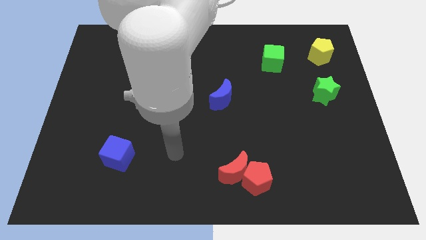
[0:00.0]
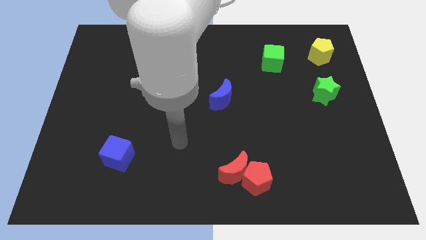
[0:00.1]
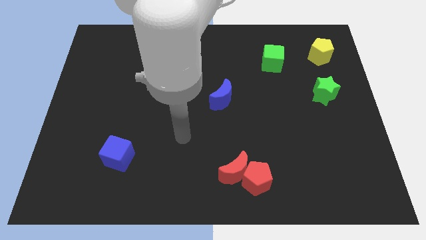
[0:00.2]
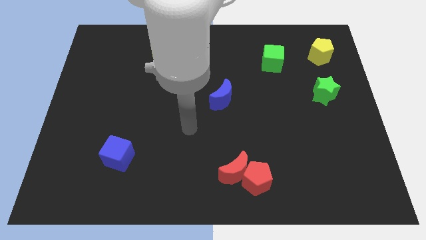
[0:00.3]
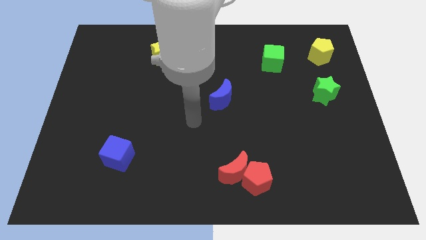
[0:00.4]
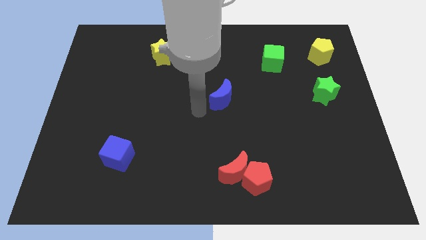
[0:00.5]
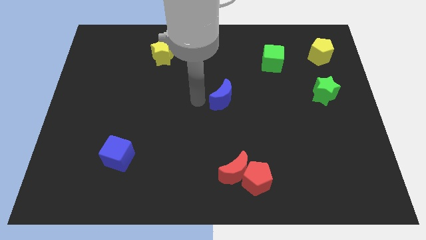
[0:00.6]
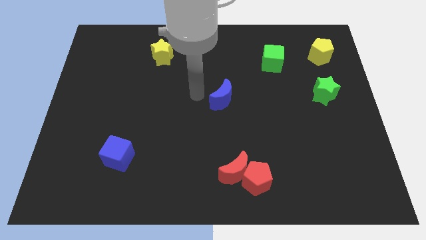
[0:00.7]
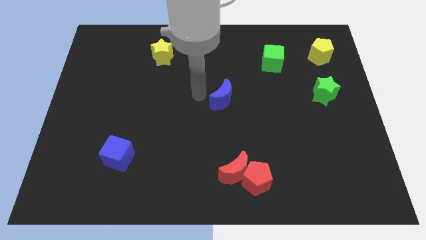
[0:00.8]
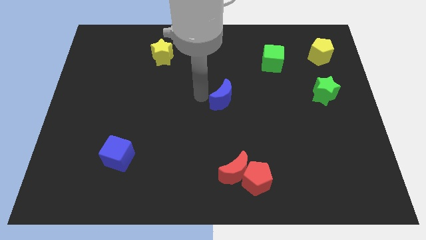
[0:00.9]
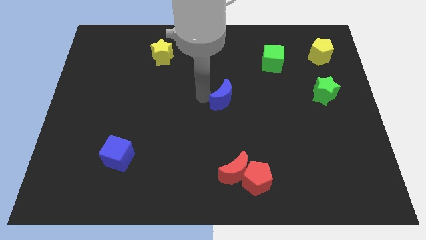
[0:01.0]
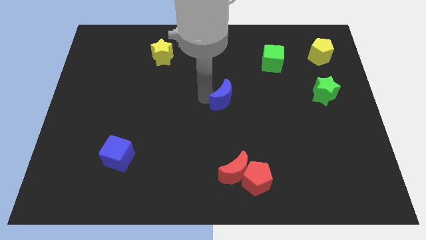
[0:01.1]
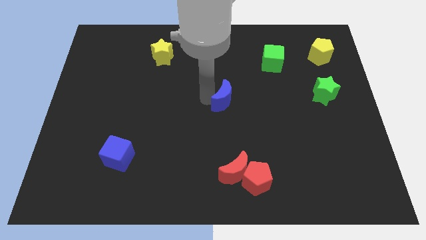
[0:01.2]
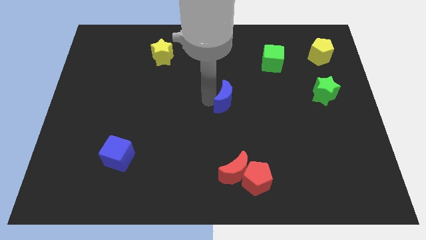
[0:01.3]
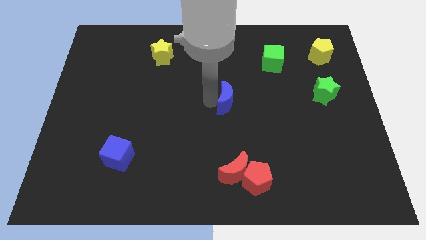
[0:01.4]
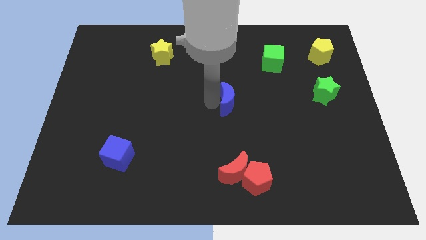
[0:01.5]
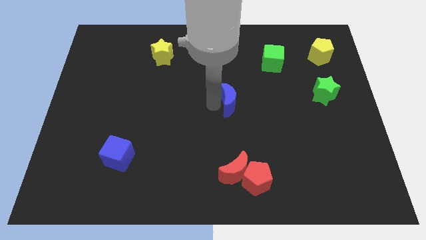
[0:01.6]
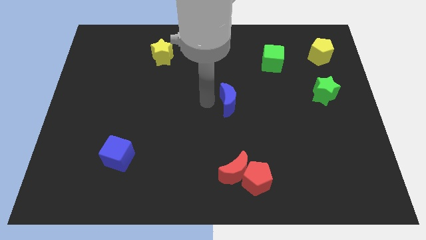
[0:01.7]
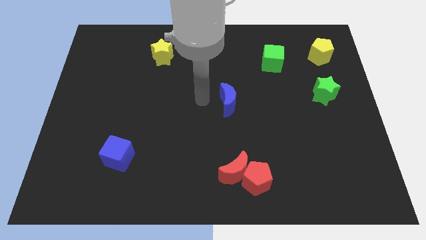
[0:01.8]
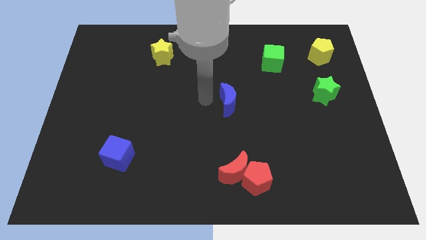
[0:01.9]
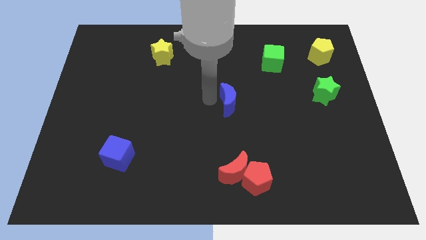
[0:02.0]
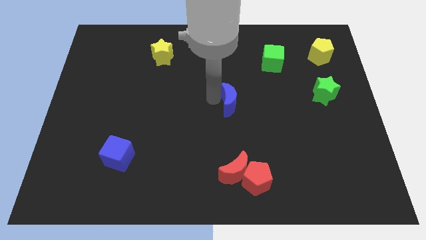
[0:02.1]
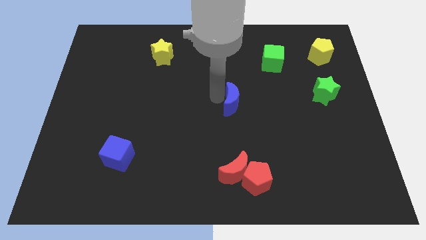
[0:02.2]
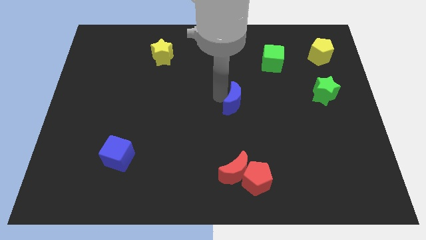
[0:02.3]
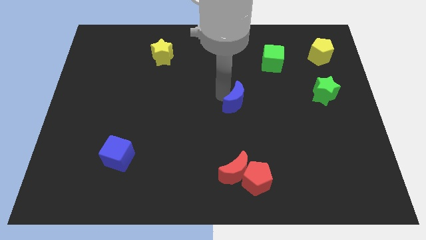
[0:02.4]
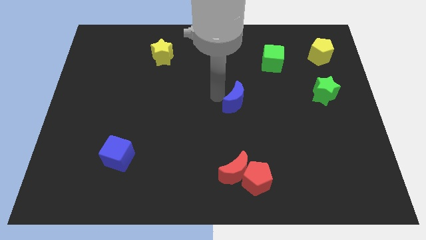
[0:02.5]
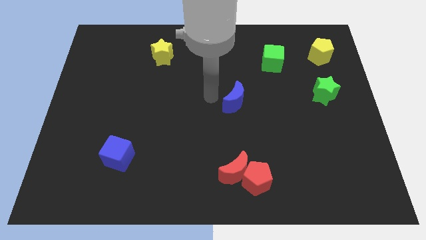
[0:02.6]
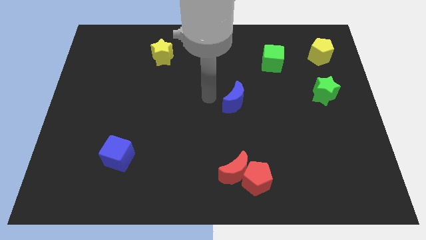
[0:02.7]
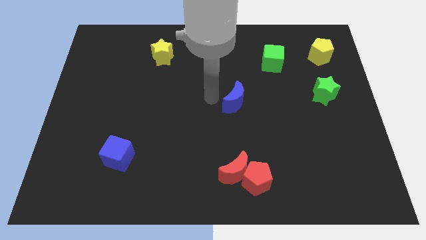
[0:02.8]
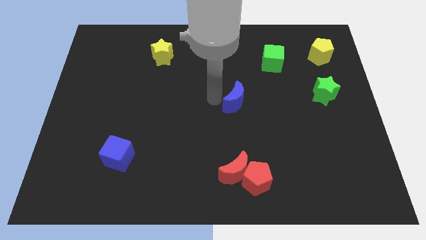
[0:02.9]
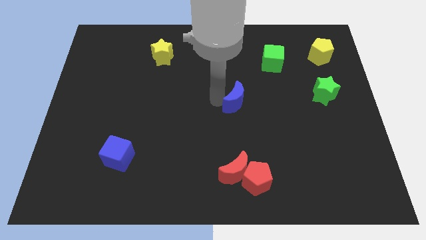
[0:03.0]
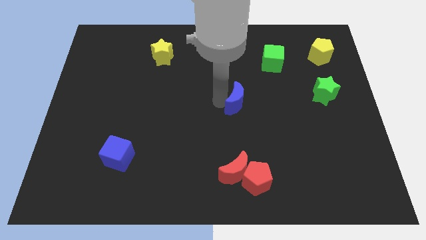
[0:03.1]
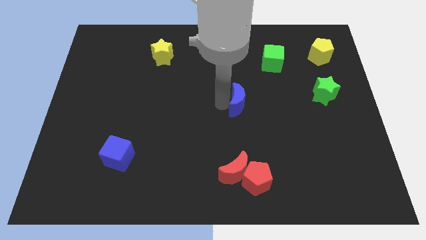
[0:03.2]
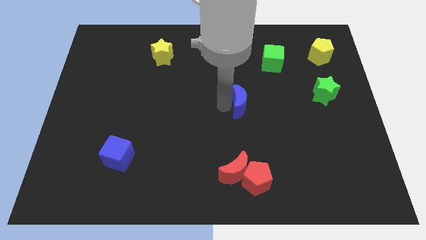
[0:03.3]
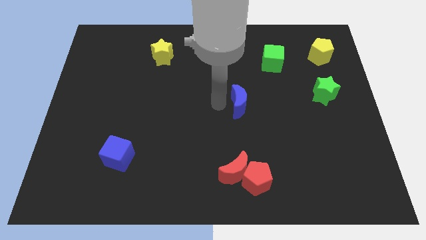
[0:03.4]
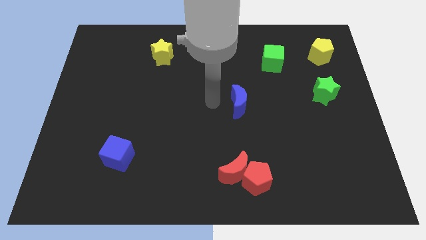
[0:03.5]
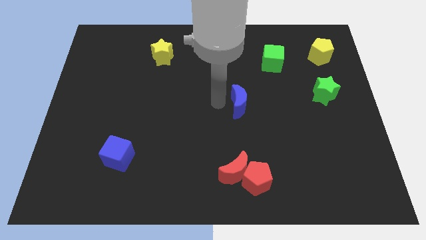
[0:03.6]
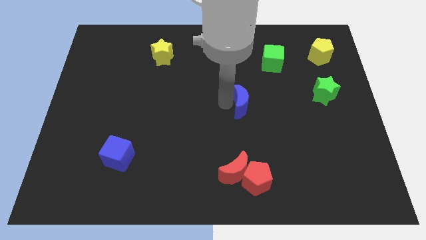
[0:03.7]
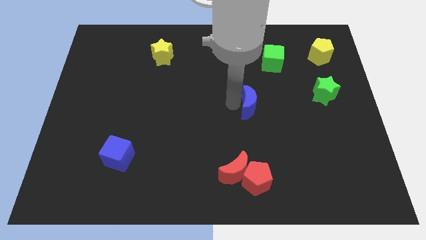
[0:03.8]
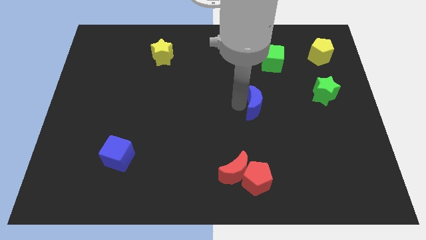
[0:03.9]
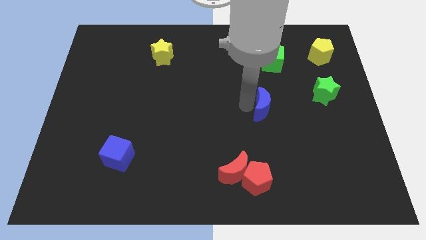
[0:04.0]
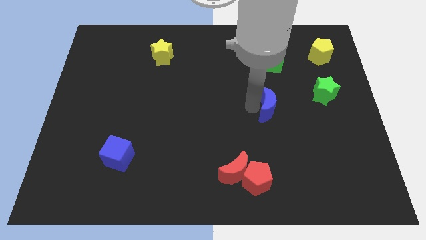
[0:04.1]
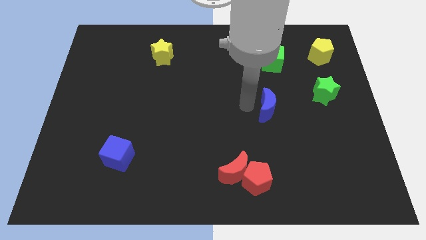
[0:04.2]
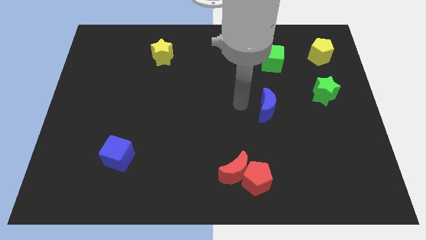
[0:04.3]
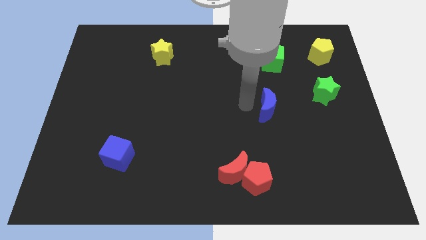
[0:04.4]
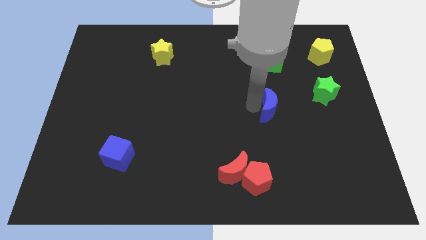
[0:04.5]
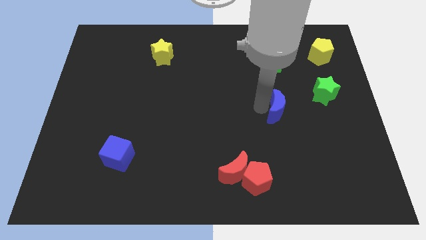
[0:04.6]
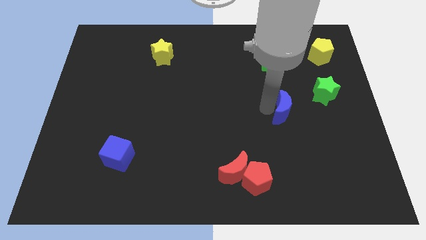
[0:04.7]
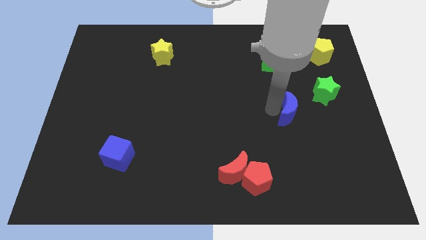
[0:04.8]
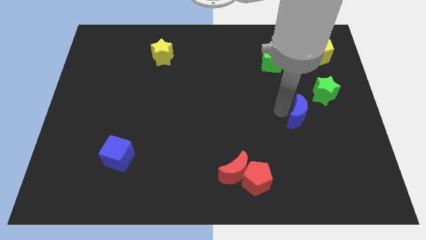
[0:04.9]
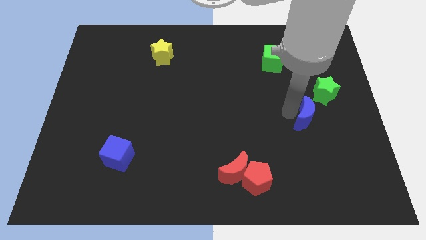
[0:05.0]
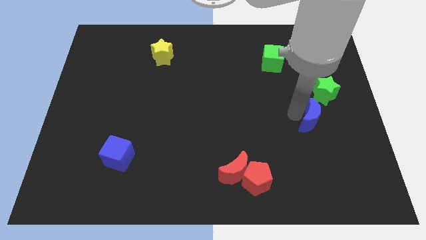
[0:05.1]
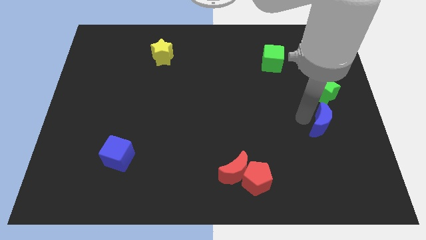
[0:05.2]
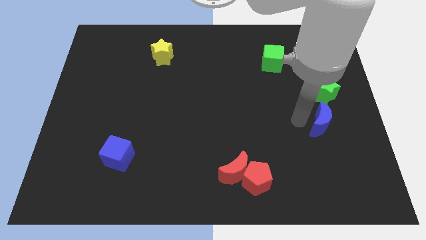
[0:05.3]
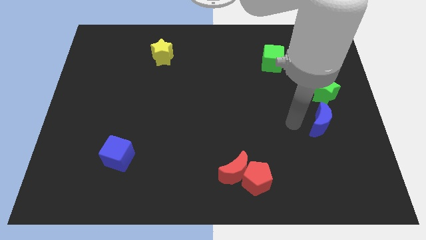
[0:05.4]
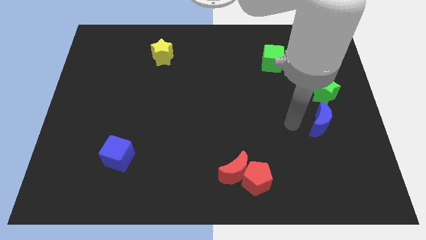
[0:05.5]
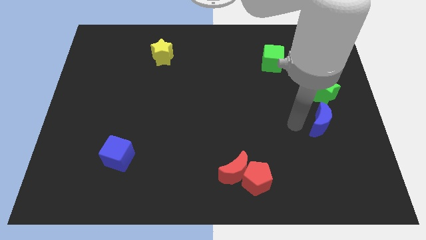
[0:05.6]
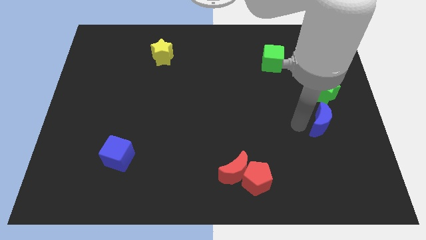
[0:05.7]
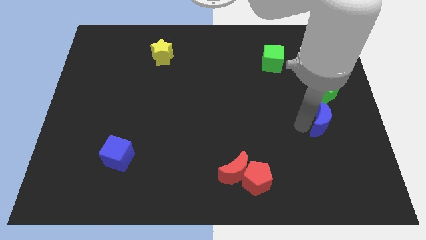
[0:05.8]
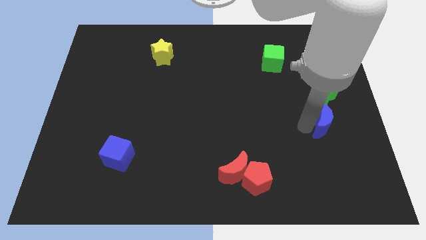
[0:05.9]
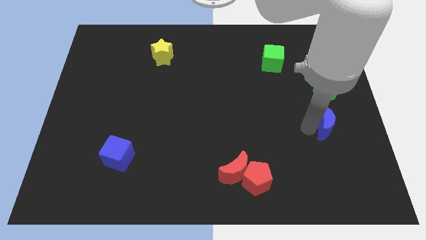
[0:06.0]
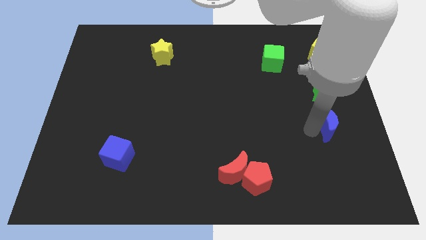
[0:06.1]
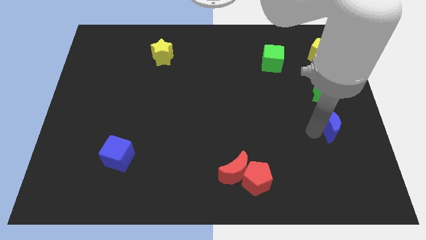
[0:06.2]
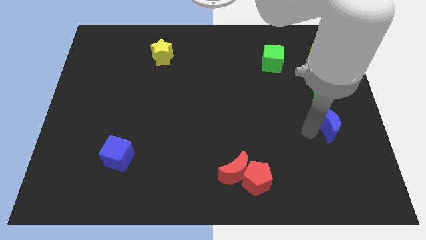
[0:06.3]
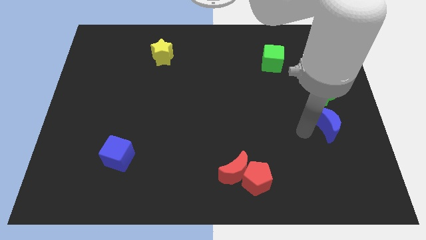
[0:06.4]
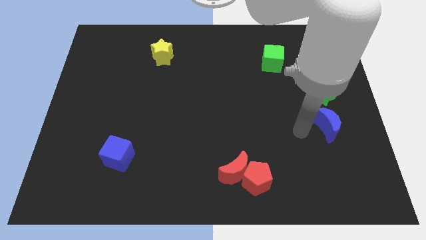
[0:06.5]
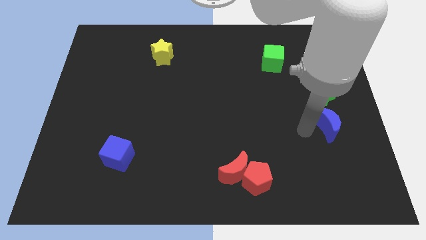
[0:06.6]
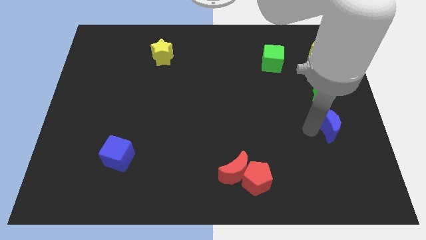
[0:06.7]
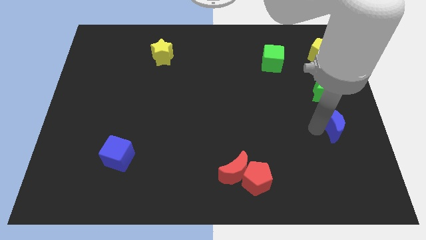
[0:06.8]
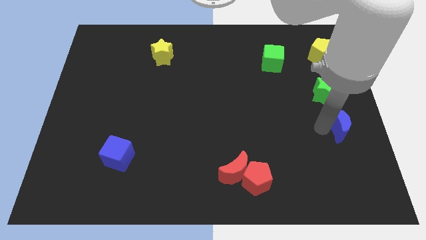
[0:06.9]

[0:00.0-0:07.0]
push the blue moon to the right side of the board
